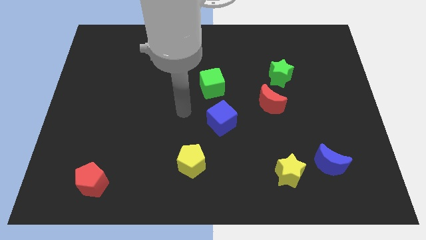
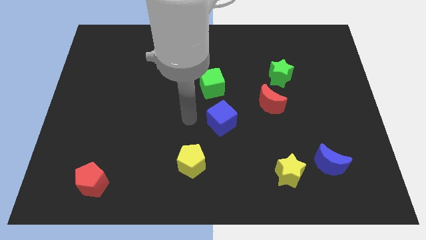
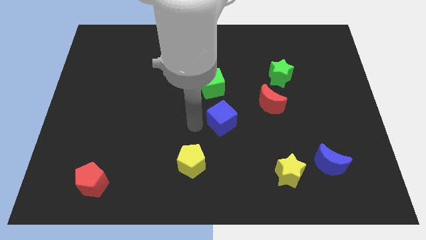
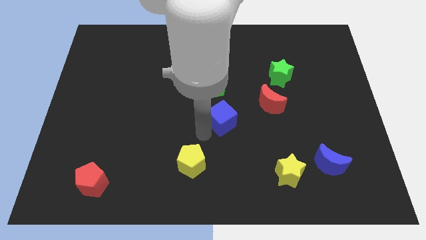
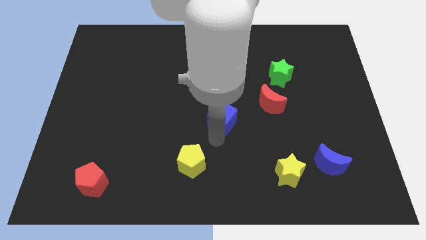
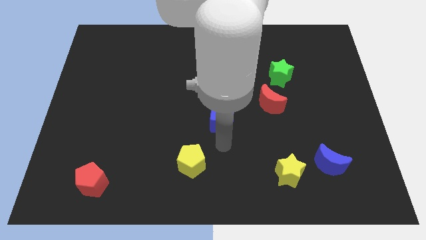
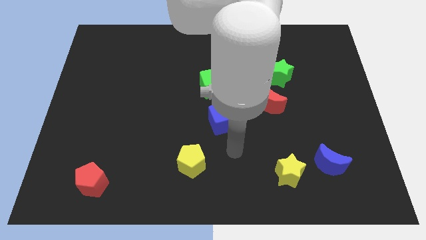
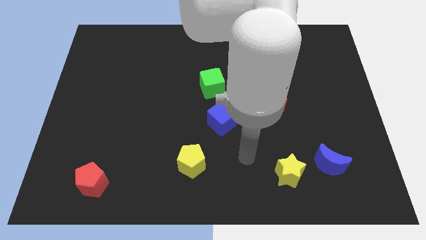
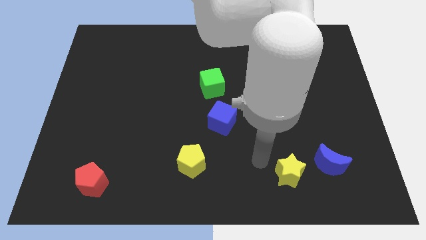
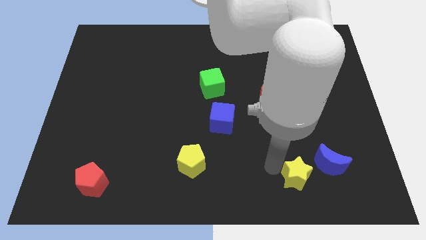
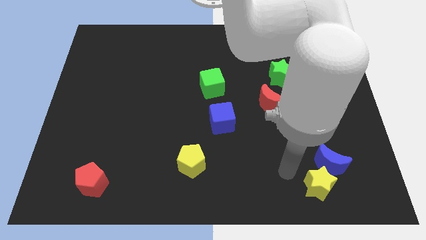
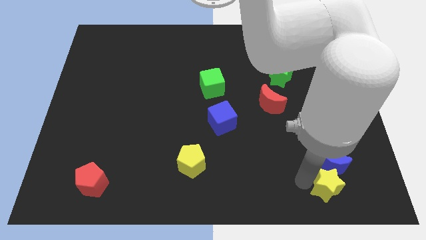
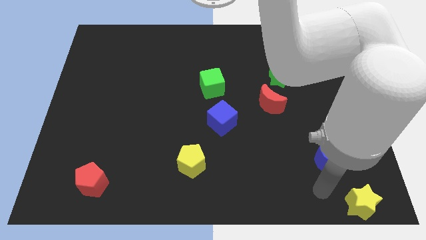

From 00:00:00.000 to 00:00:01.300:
pull the blue moon apart from the yellow star

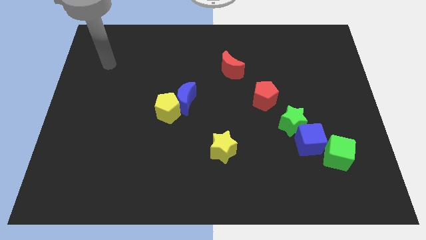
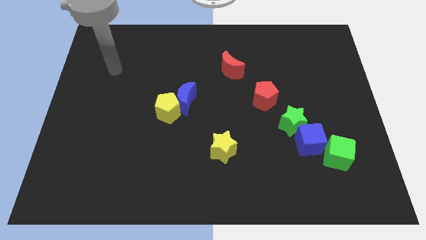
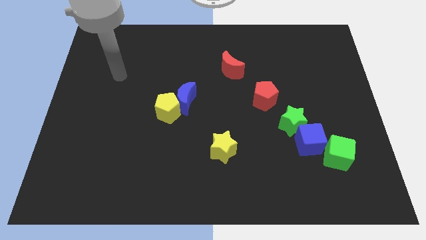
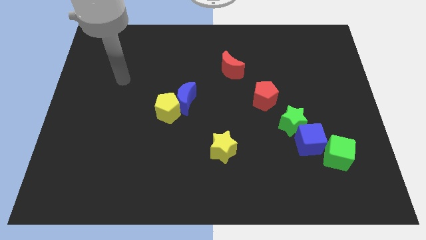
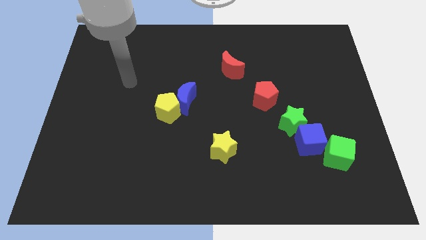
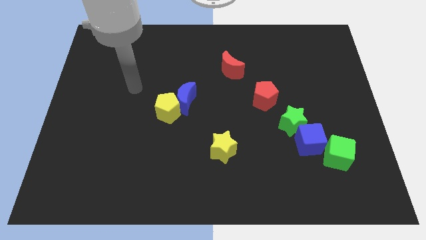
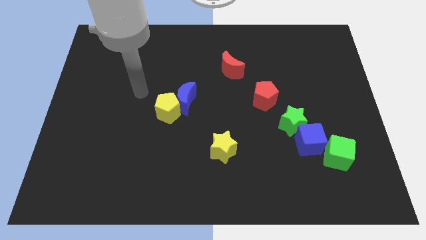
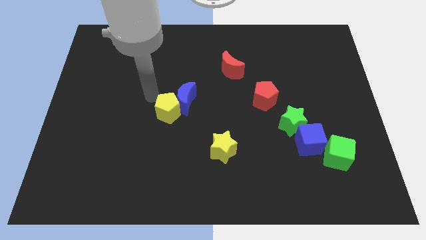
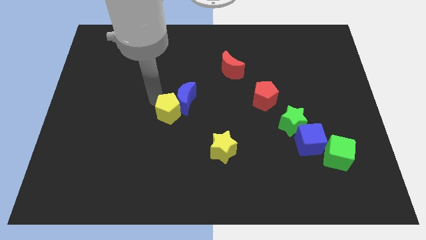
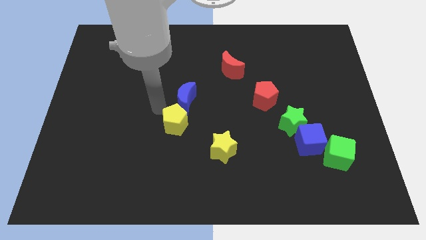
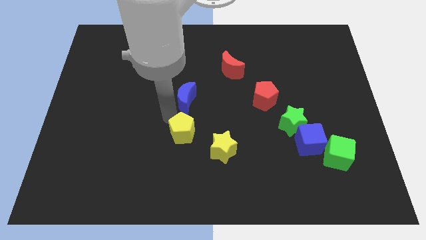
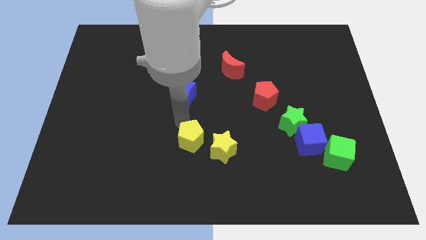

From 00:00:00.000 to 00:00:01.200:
move the blue moon away from the yellow pentagon

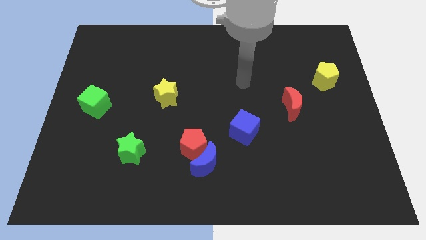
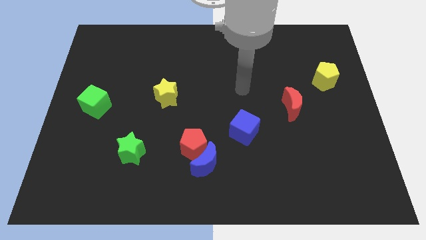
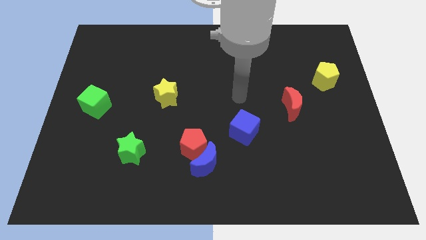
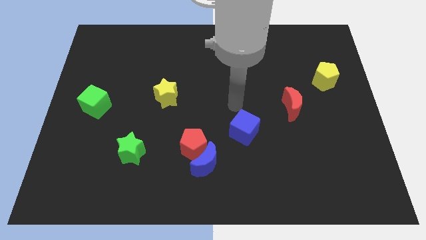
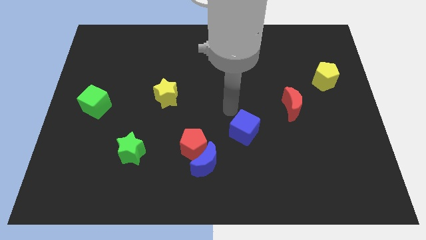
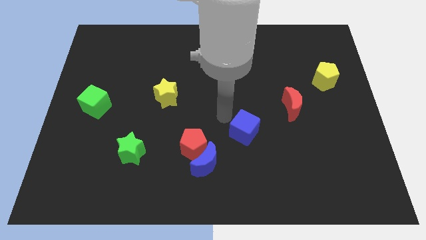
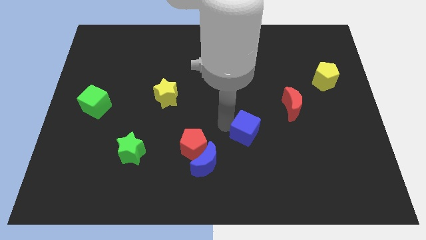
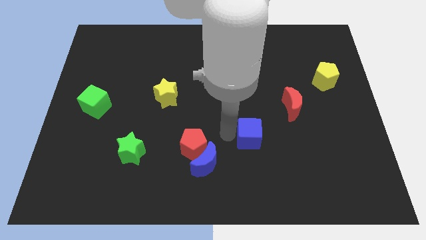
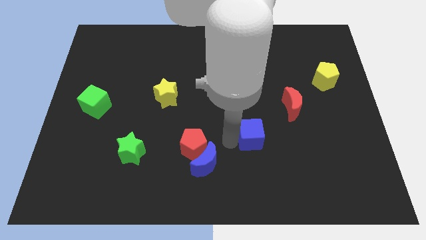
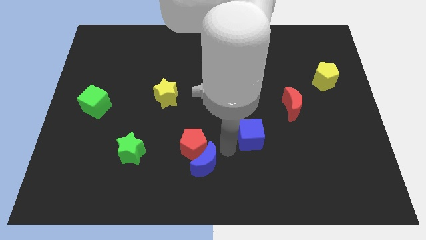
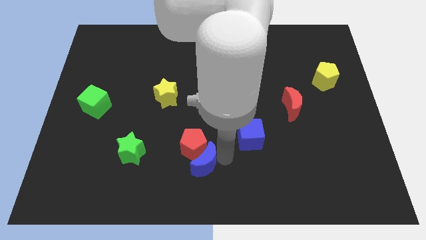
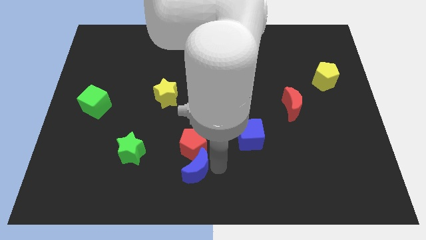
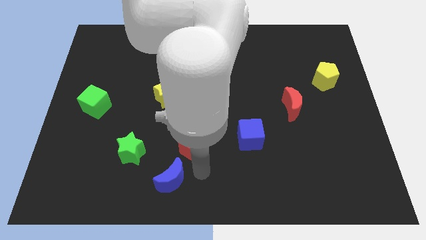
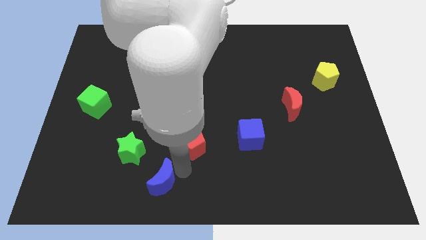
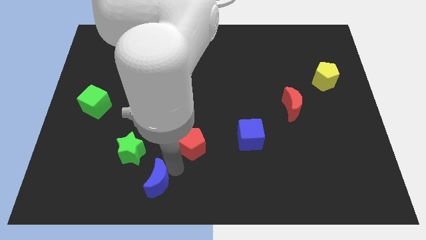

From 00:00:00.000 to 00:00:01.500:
move the red pentagon away from the blue moon

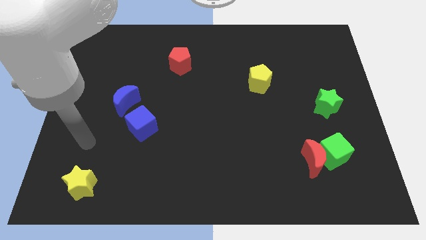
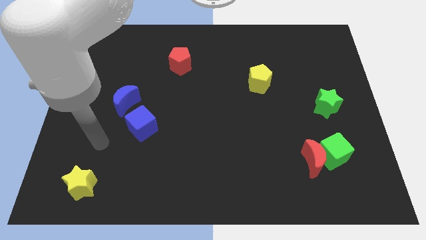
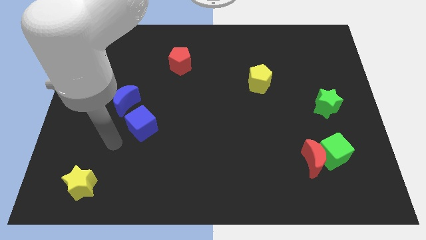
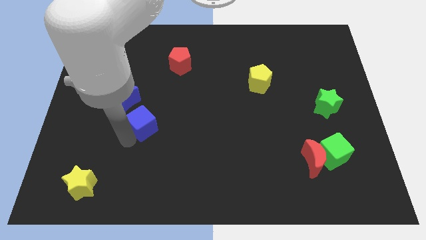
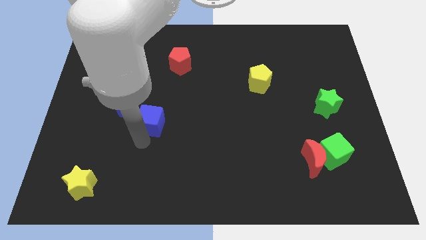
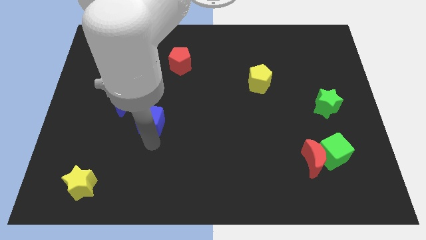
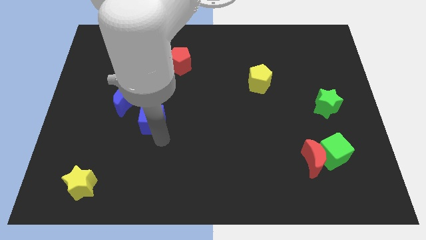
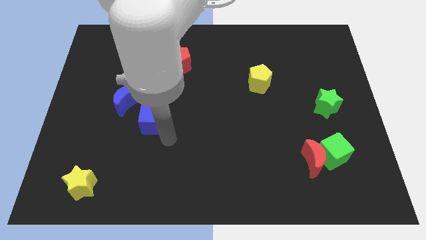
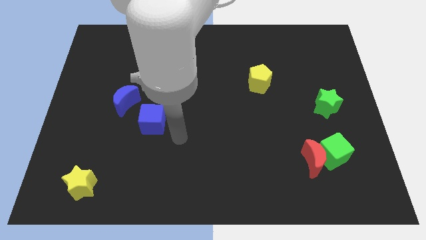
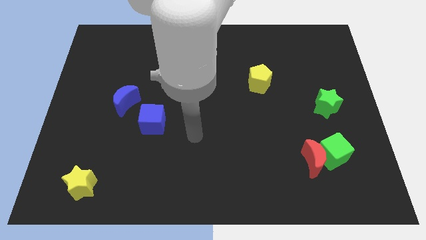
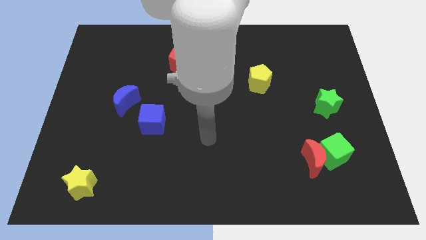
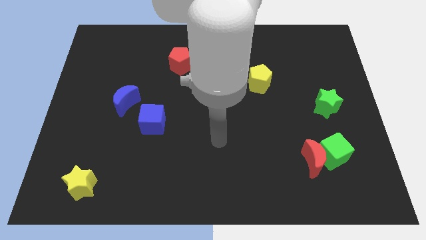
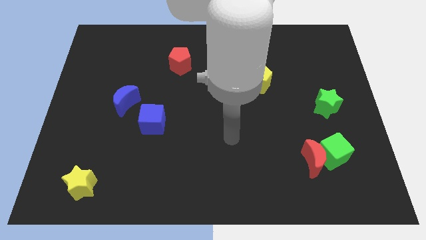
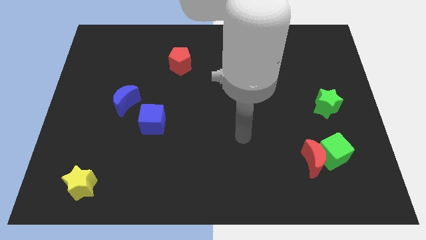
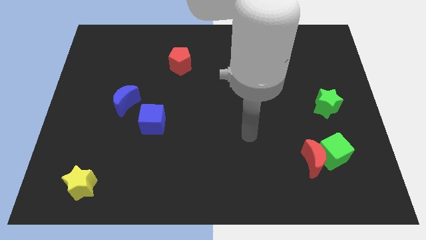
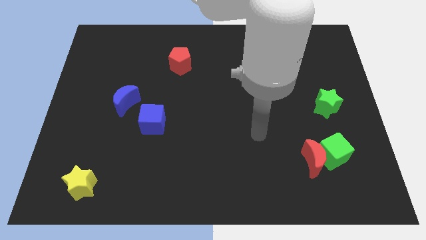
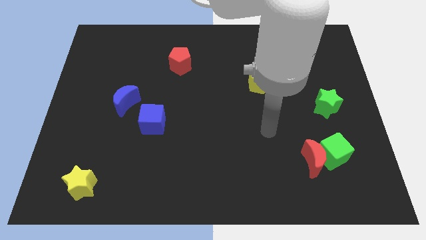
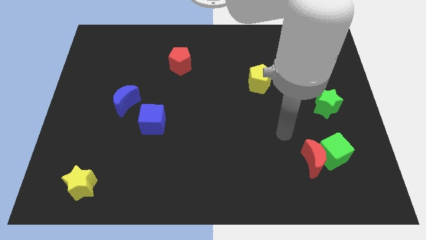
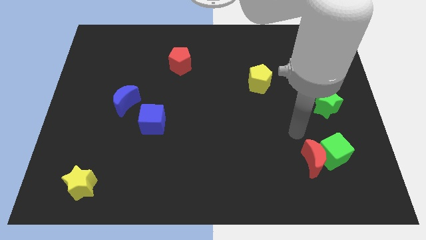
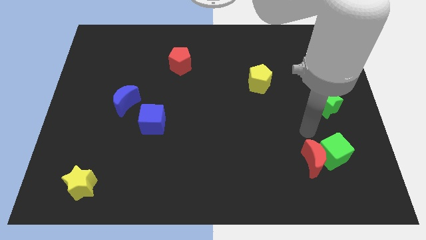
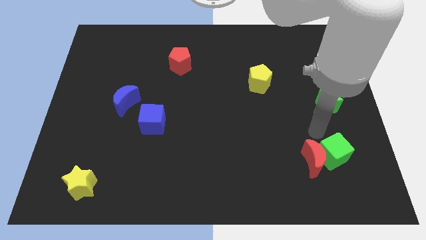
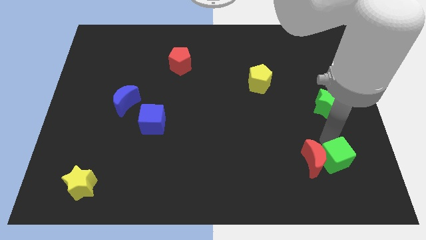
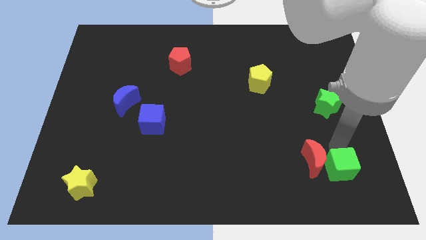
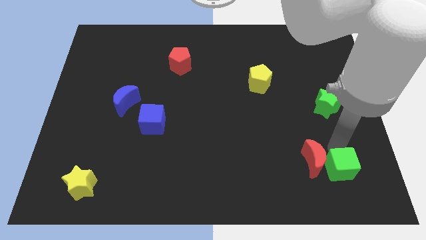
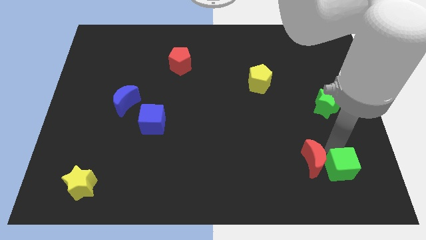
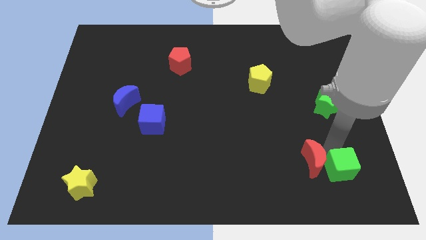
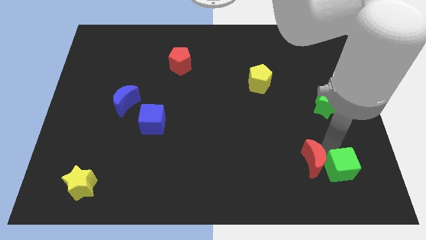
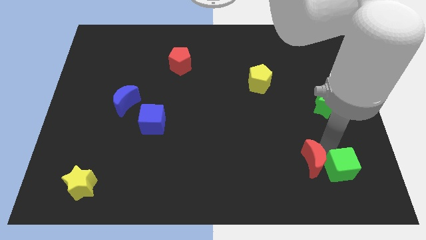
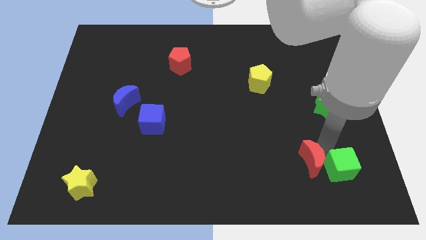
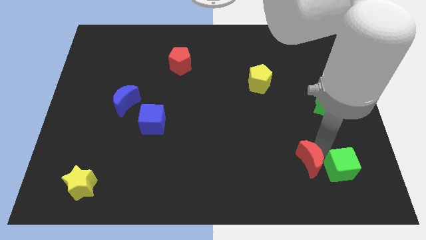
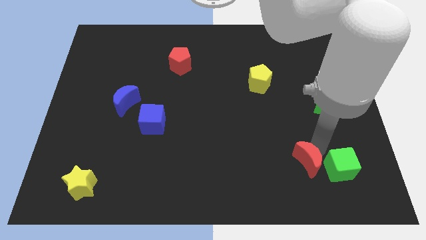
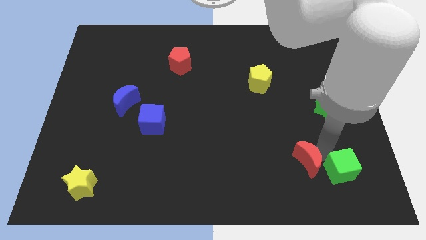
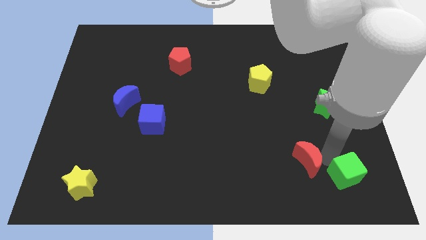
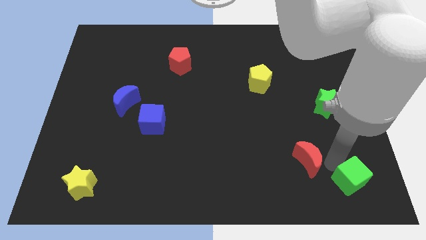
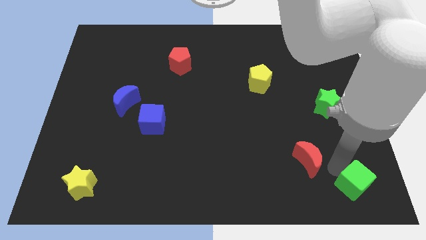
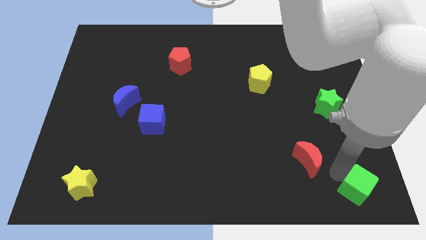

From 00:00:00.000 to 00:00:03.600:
separate the red moon from the green cube

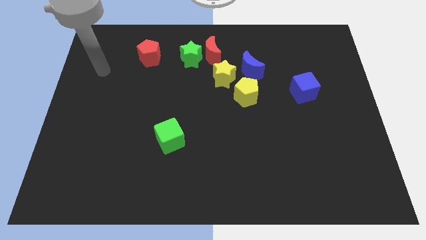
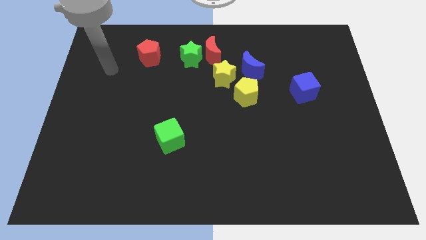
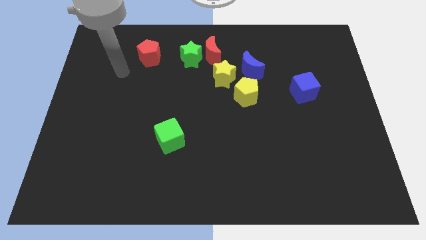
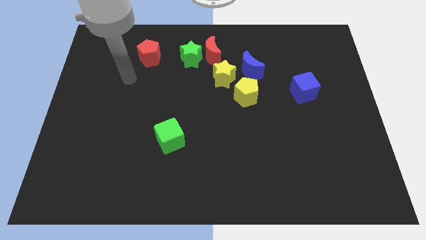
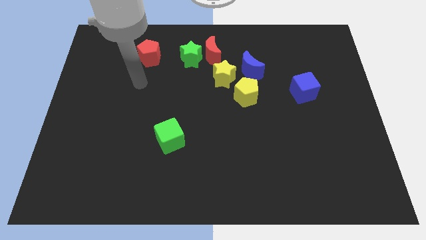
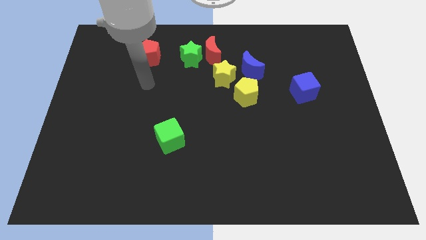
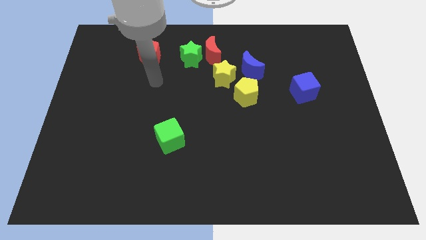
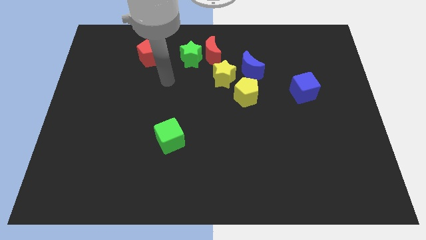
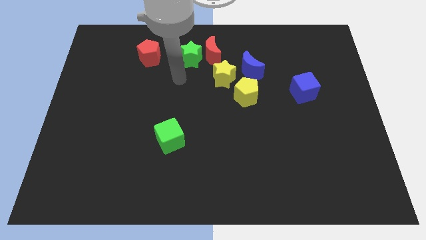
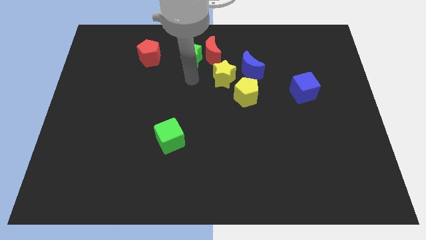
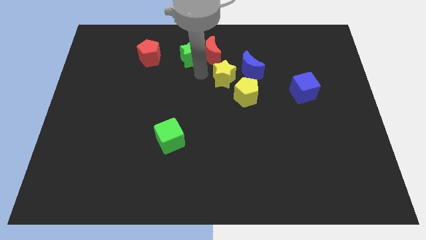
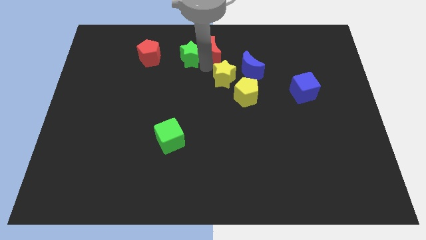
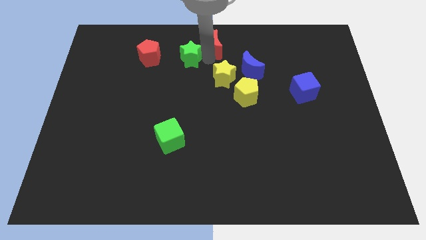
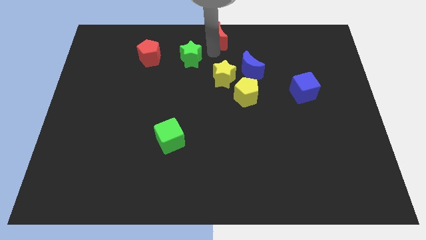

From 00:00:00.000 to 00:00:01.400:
separate the green star from the red moon

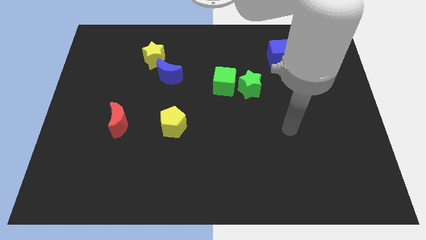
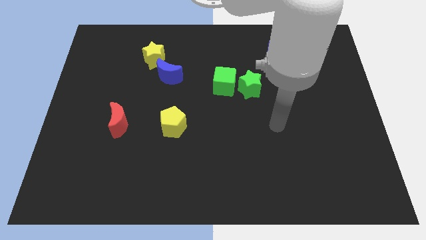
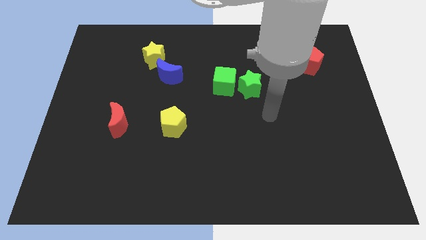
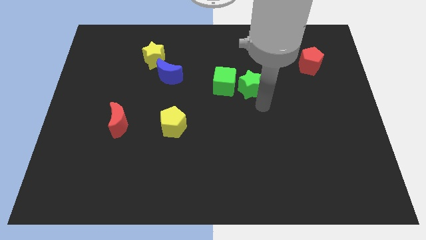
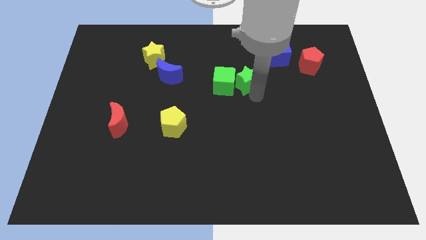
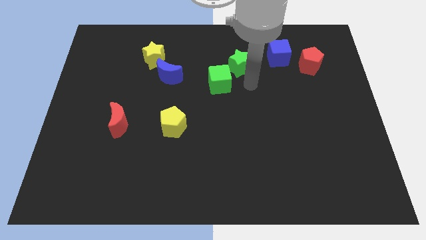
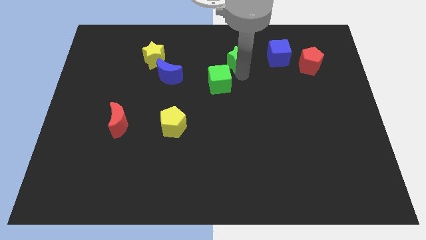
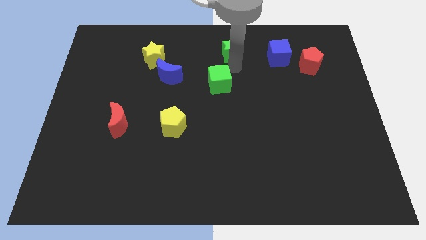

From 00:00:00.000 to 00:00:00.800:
move the green cube away from the green star
